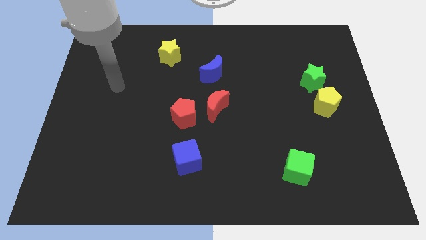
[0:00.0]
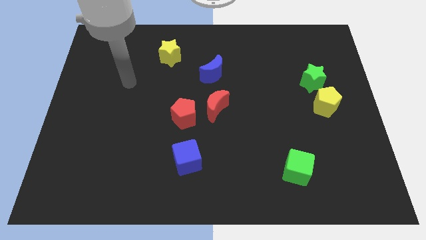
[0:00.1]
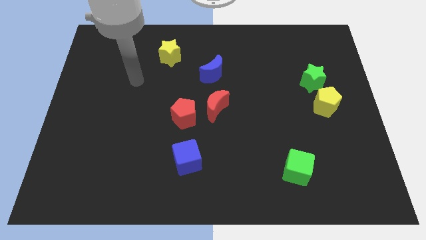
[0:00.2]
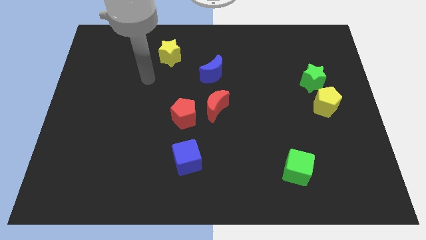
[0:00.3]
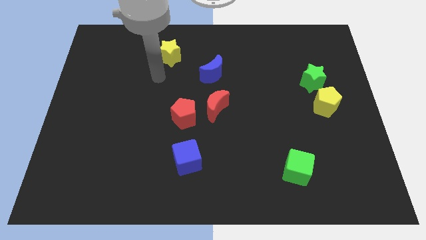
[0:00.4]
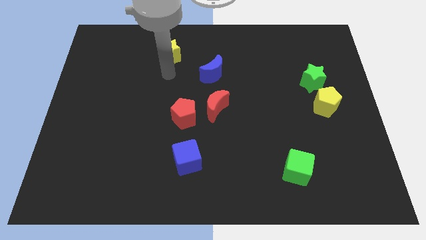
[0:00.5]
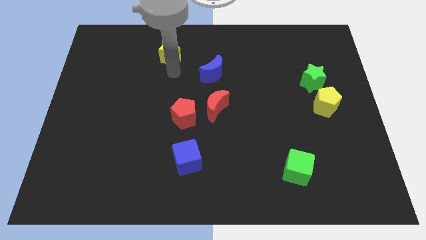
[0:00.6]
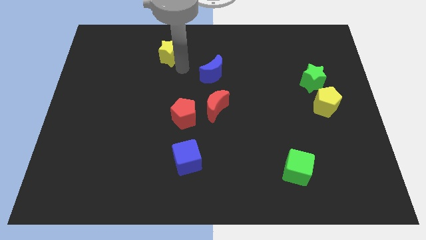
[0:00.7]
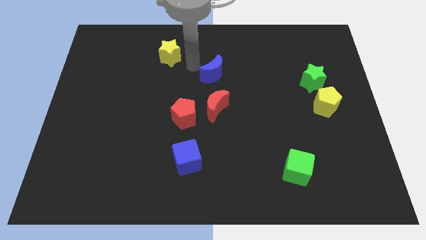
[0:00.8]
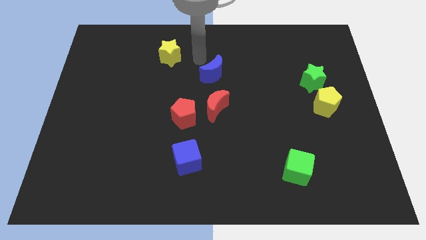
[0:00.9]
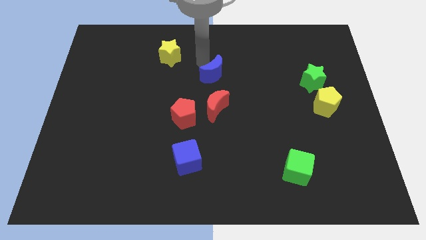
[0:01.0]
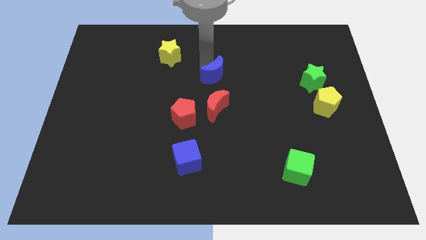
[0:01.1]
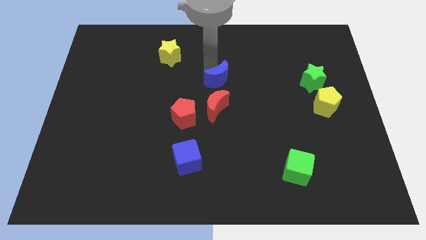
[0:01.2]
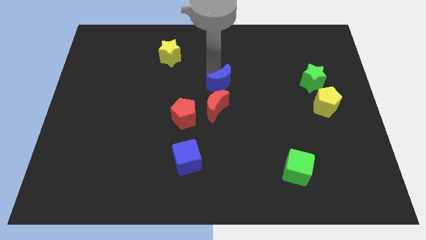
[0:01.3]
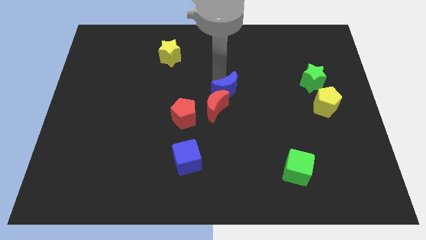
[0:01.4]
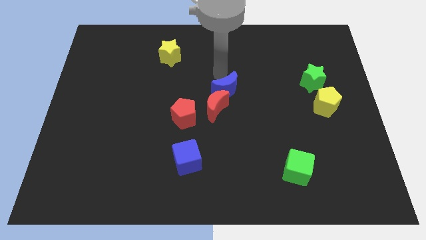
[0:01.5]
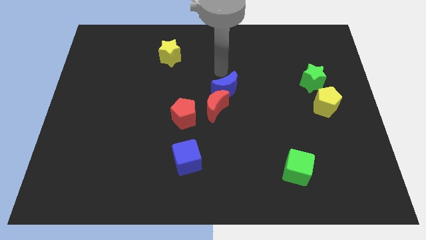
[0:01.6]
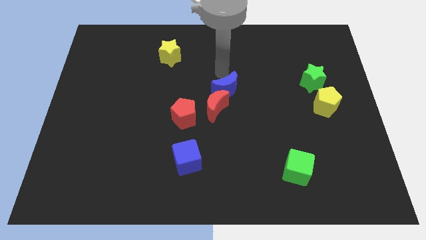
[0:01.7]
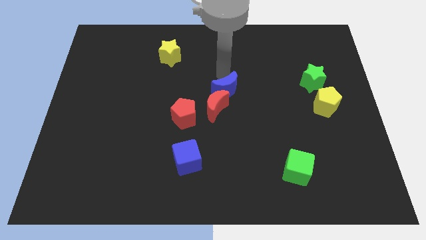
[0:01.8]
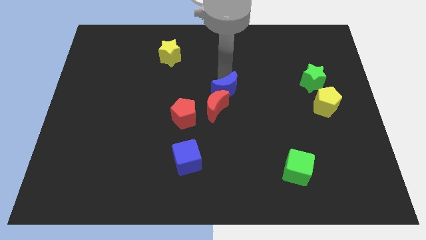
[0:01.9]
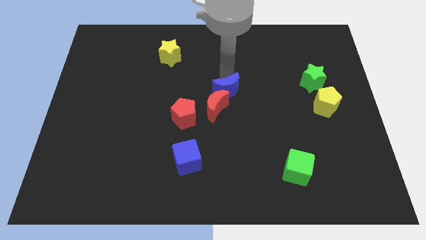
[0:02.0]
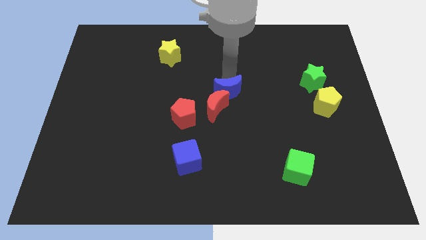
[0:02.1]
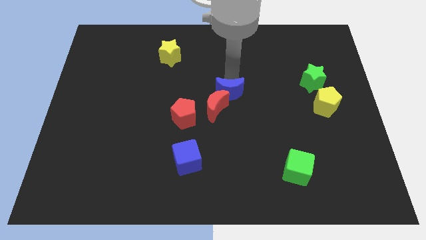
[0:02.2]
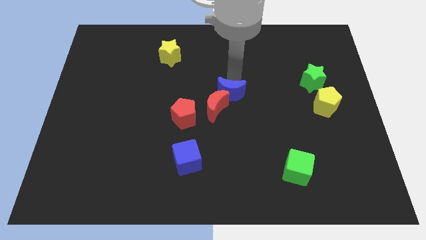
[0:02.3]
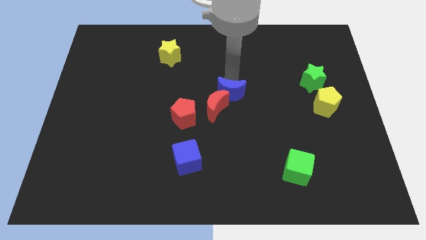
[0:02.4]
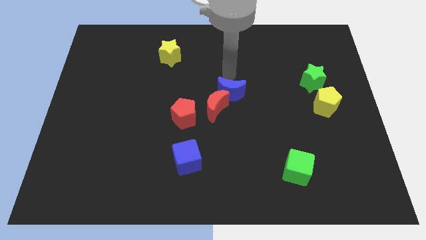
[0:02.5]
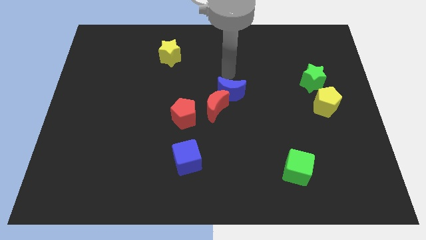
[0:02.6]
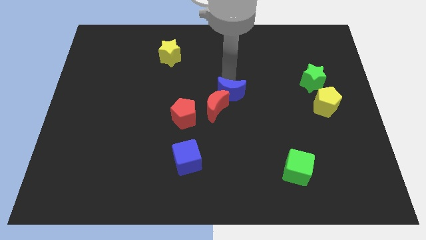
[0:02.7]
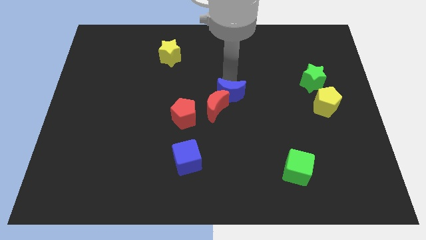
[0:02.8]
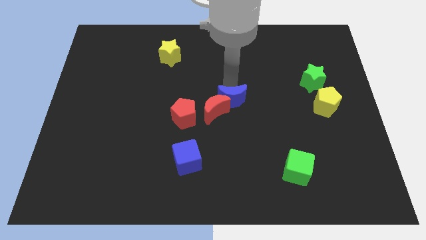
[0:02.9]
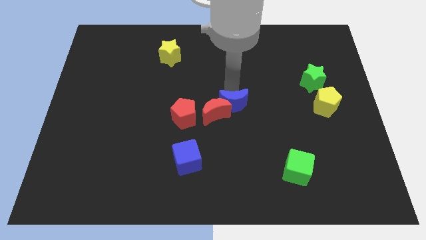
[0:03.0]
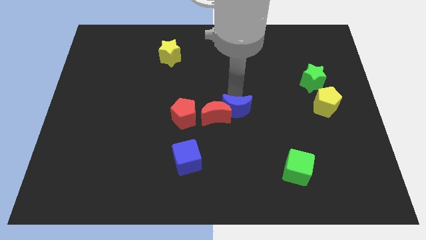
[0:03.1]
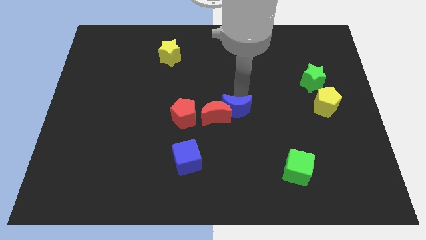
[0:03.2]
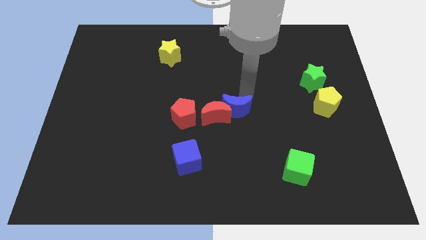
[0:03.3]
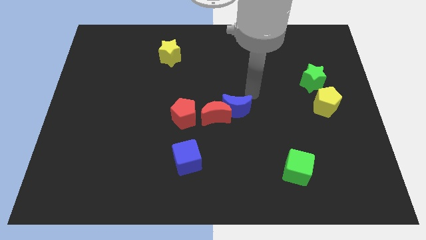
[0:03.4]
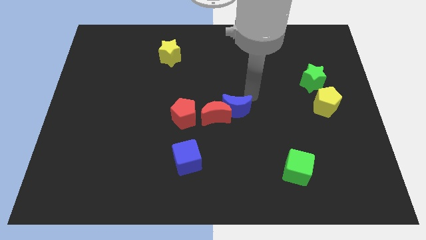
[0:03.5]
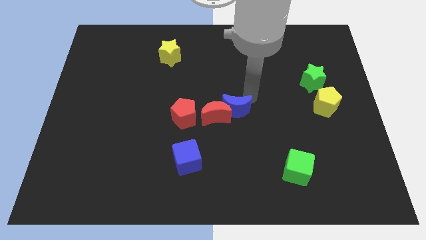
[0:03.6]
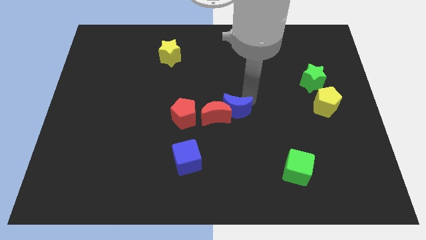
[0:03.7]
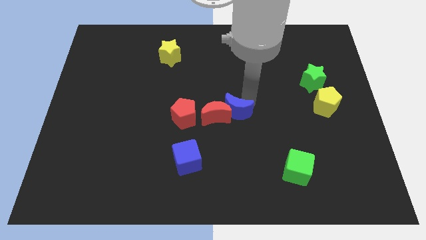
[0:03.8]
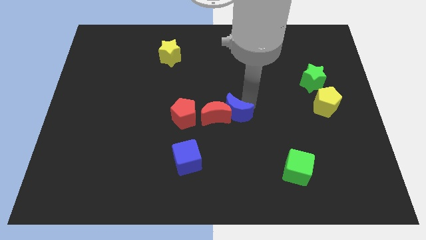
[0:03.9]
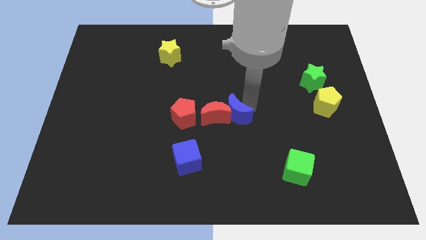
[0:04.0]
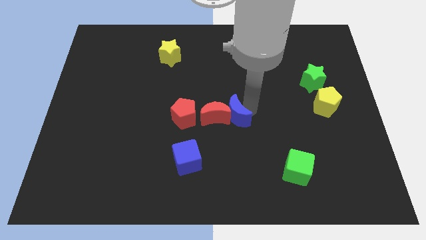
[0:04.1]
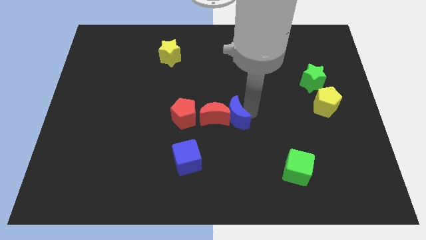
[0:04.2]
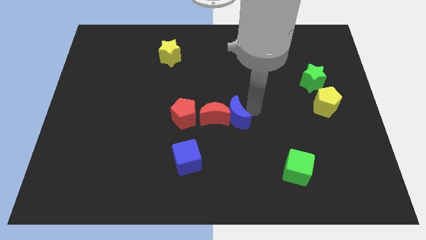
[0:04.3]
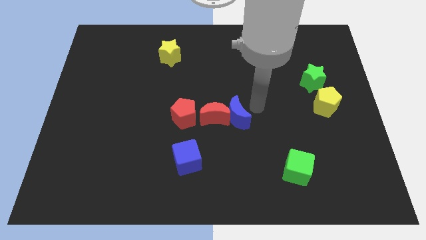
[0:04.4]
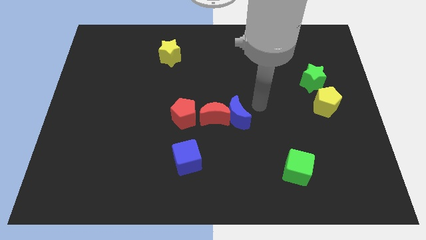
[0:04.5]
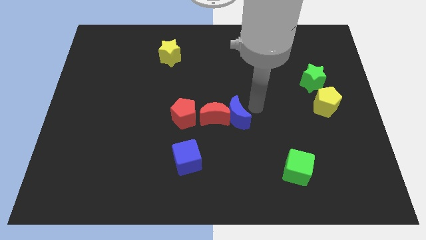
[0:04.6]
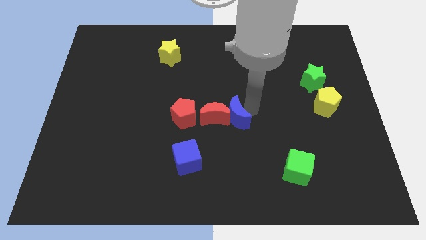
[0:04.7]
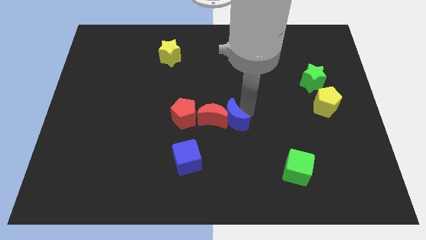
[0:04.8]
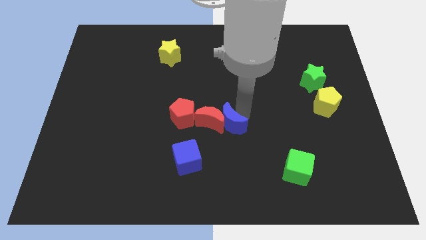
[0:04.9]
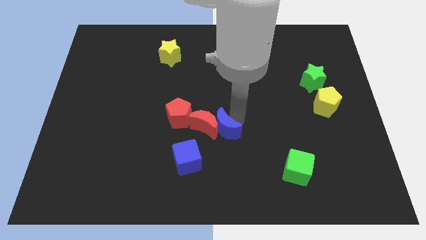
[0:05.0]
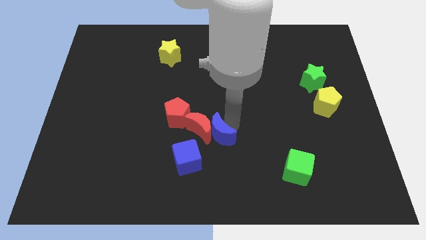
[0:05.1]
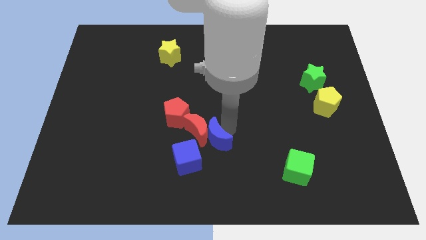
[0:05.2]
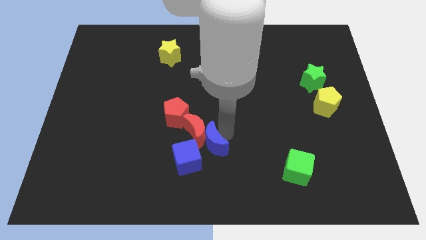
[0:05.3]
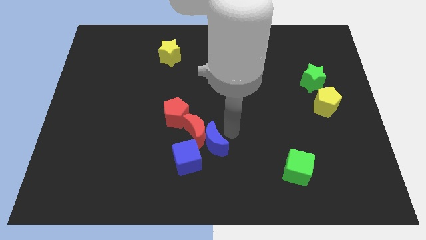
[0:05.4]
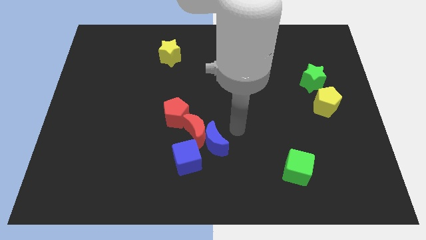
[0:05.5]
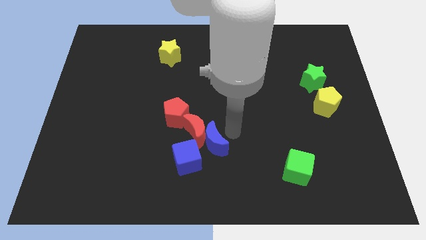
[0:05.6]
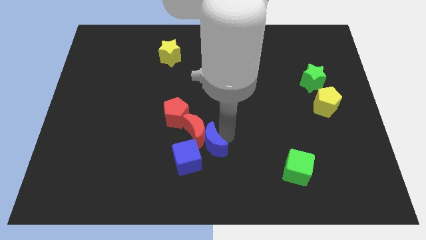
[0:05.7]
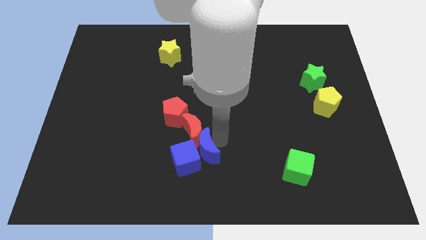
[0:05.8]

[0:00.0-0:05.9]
put the blue moon close to the blue cube

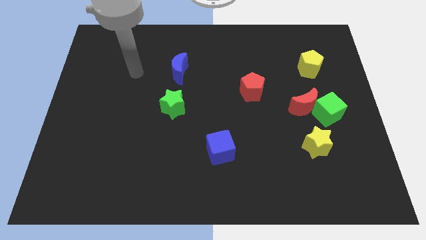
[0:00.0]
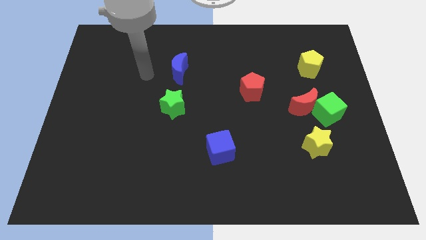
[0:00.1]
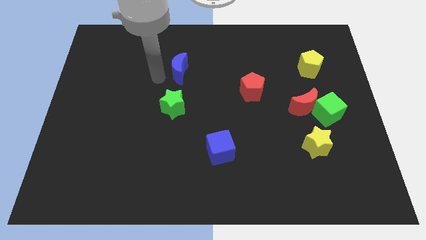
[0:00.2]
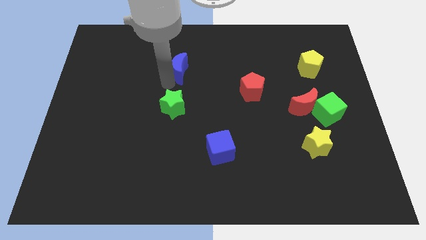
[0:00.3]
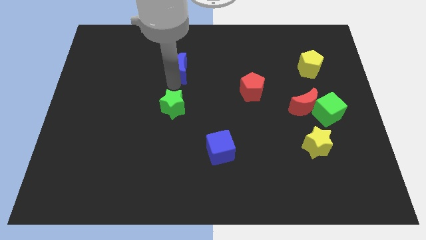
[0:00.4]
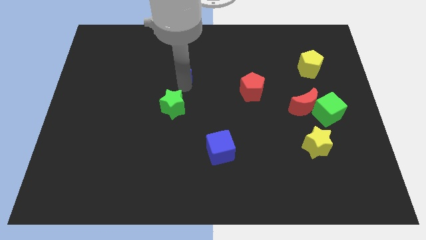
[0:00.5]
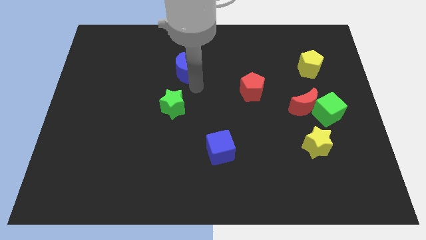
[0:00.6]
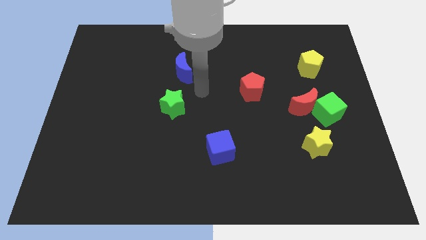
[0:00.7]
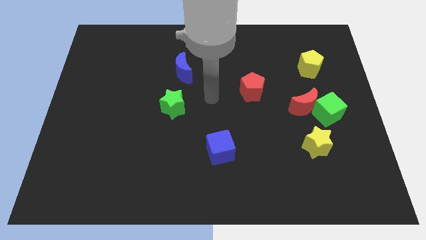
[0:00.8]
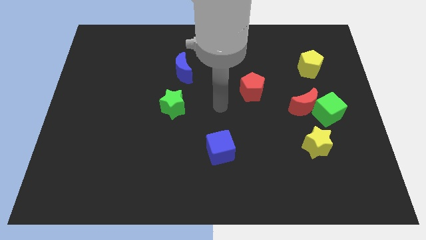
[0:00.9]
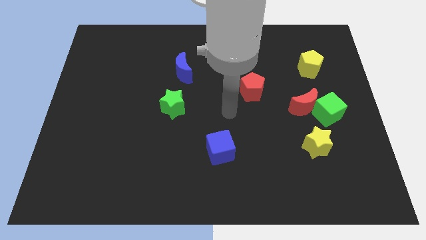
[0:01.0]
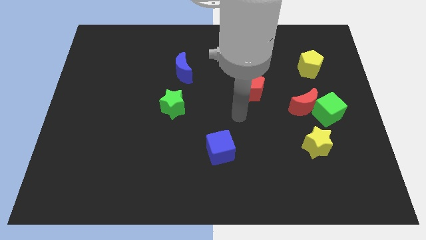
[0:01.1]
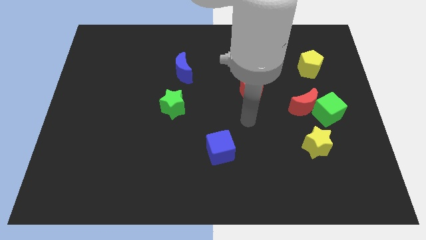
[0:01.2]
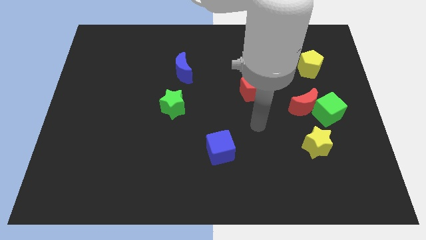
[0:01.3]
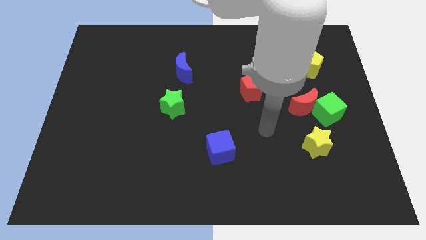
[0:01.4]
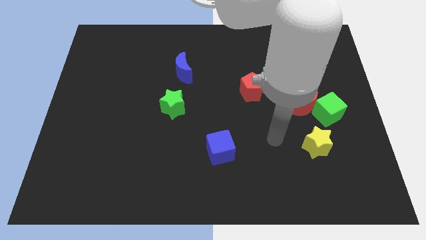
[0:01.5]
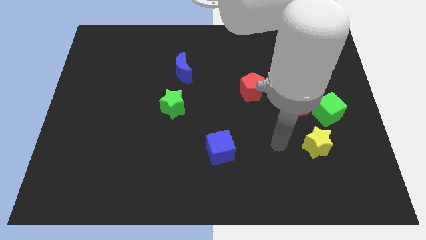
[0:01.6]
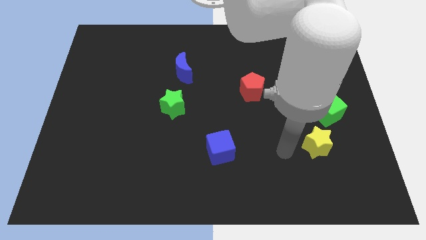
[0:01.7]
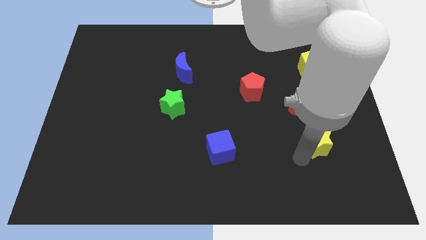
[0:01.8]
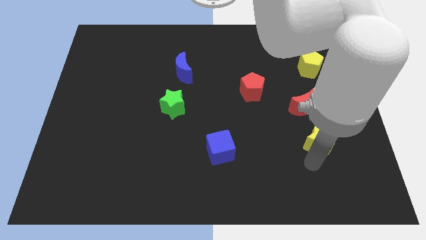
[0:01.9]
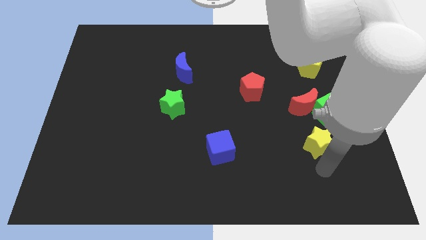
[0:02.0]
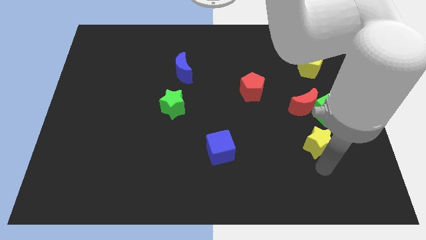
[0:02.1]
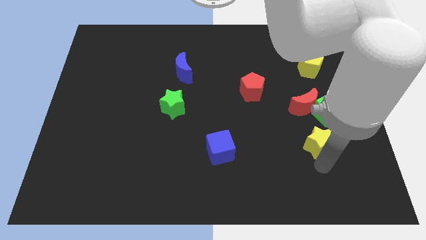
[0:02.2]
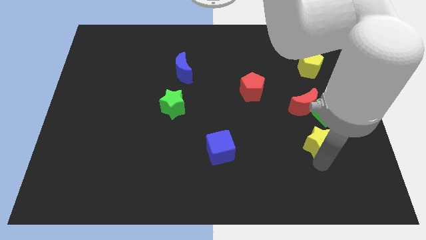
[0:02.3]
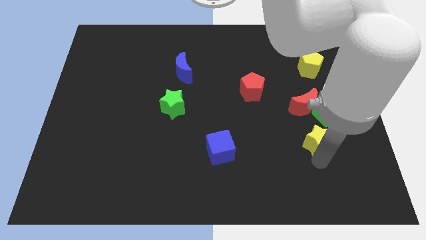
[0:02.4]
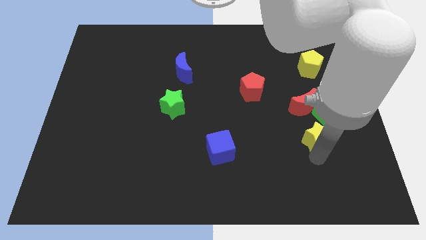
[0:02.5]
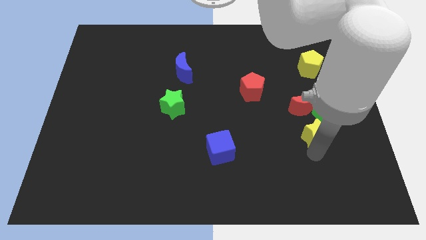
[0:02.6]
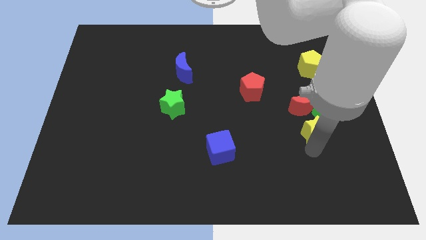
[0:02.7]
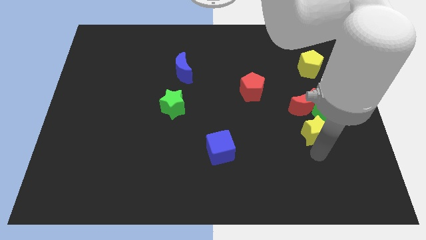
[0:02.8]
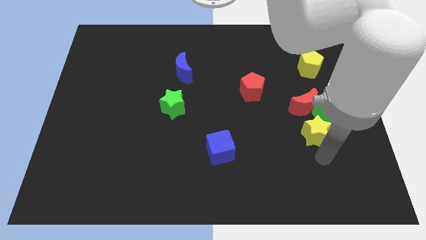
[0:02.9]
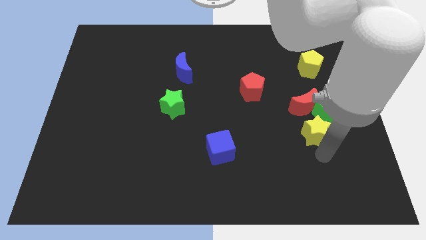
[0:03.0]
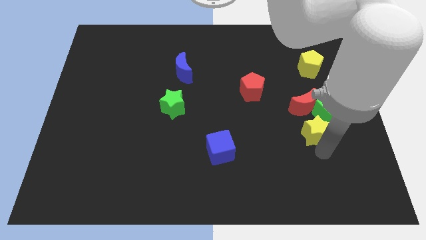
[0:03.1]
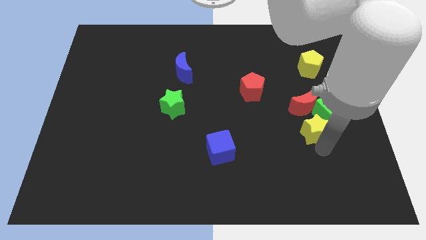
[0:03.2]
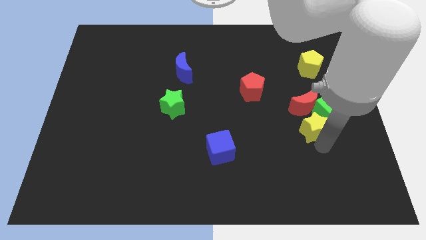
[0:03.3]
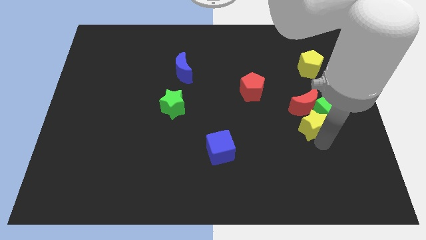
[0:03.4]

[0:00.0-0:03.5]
move the yellow star next to the red moon
